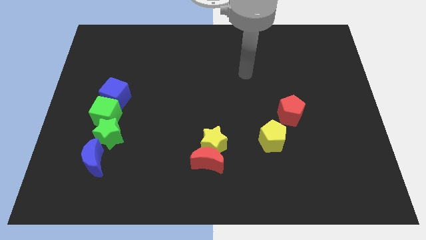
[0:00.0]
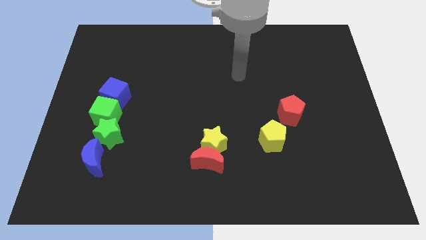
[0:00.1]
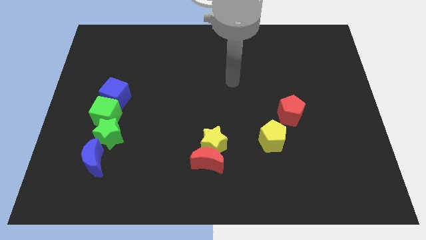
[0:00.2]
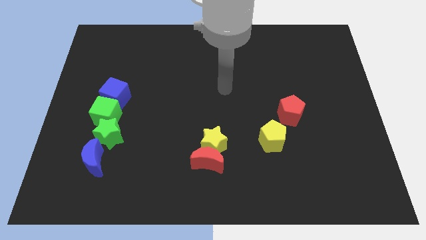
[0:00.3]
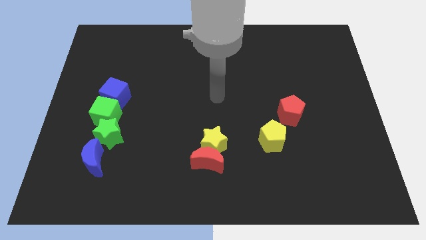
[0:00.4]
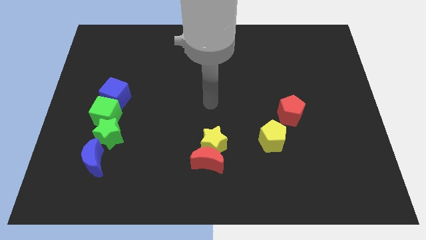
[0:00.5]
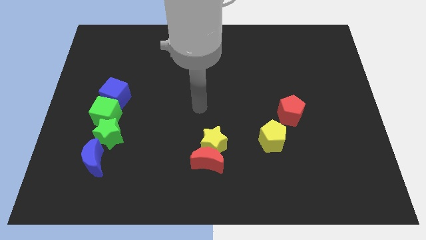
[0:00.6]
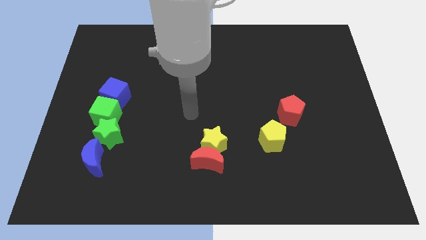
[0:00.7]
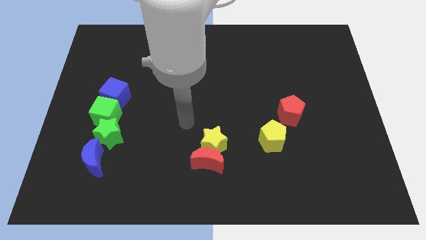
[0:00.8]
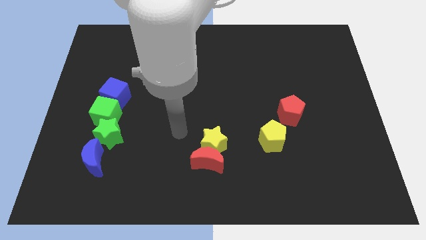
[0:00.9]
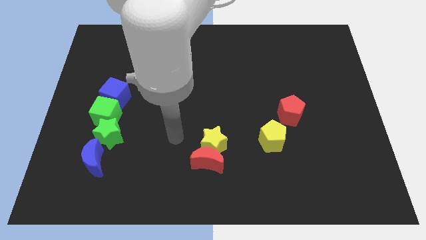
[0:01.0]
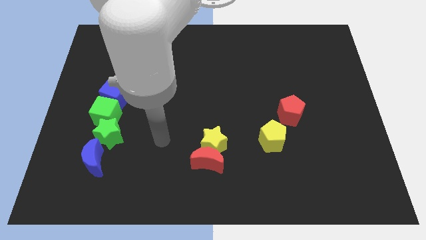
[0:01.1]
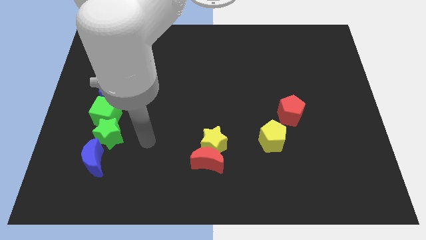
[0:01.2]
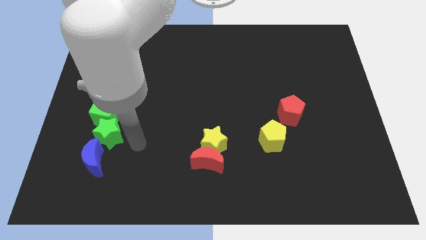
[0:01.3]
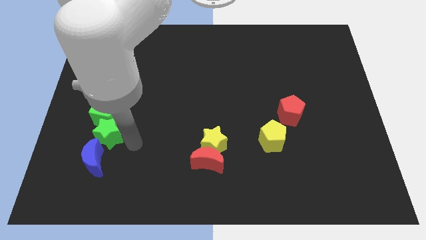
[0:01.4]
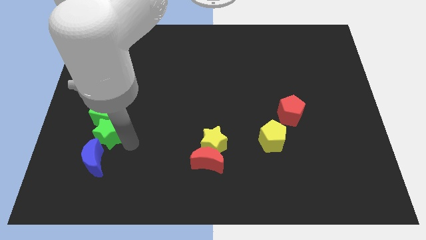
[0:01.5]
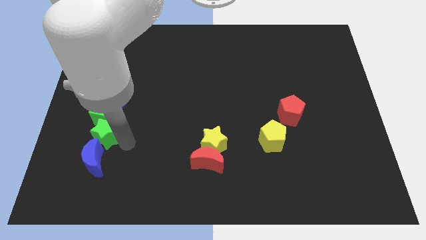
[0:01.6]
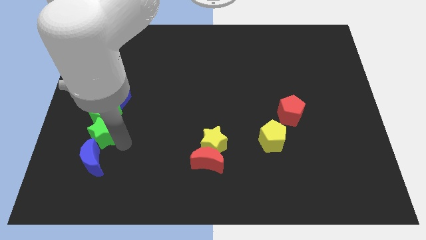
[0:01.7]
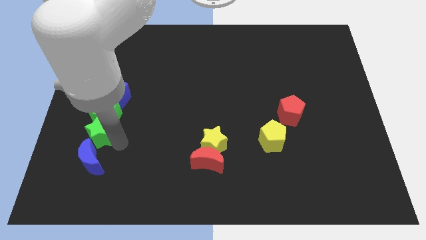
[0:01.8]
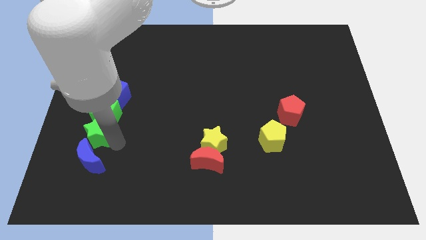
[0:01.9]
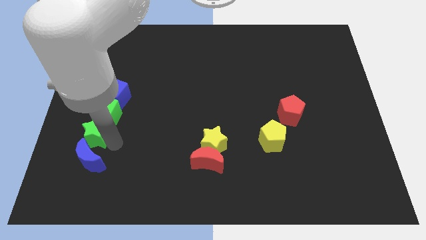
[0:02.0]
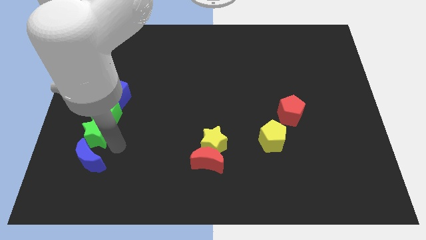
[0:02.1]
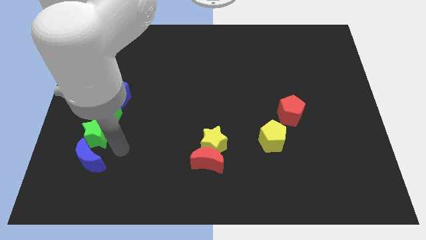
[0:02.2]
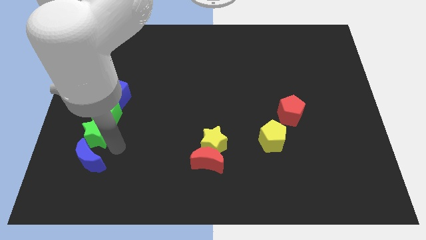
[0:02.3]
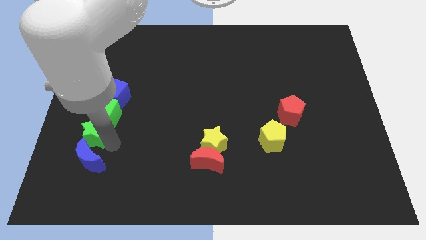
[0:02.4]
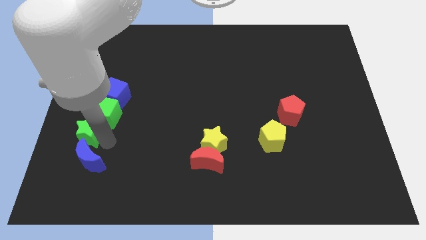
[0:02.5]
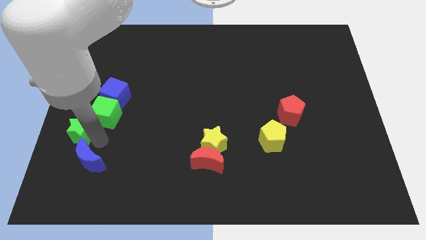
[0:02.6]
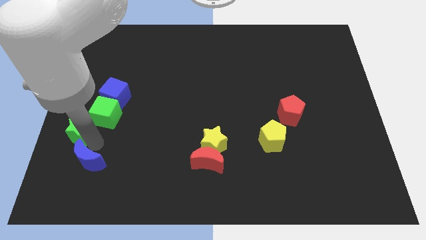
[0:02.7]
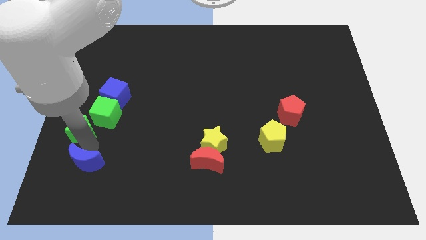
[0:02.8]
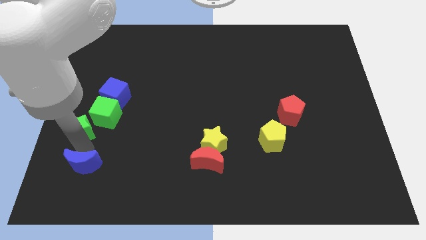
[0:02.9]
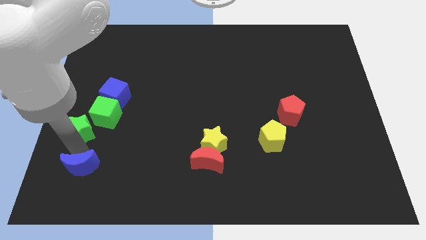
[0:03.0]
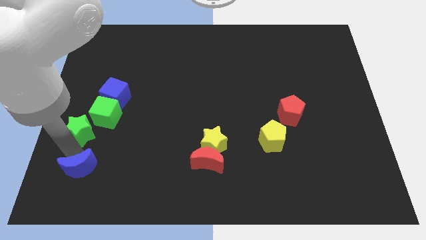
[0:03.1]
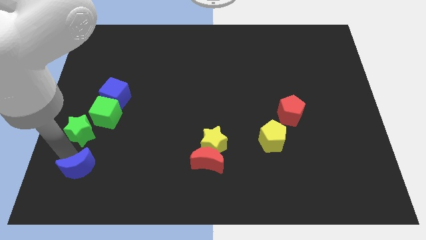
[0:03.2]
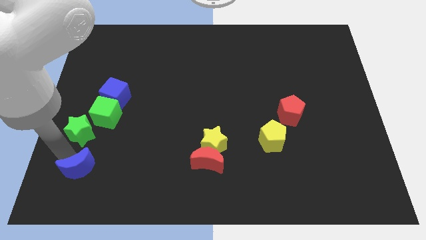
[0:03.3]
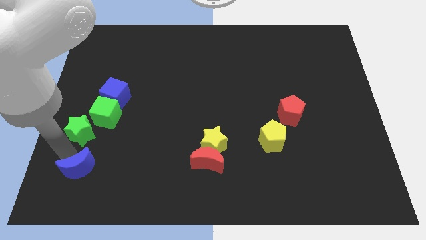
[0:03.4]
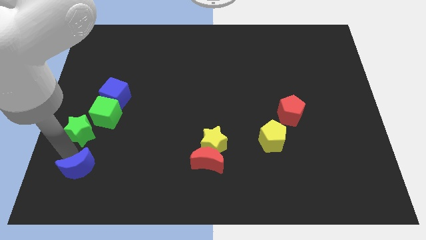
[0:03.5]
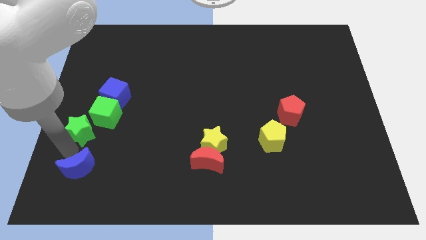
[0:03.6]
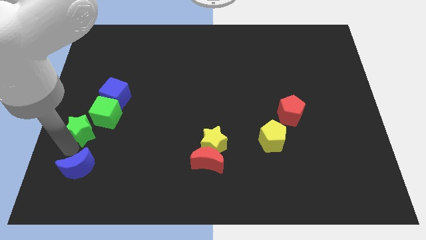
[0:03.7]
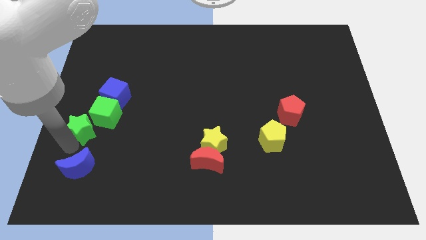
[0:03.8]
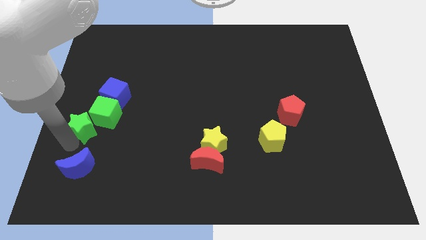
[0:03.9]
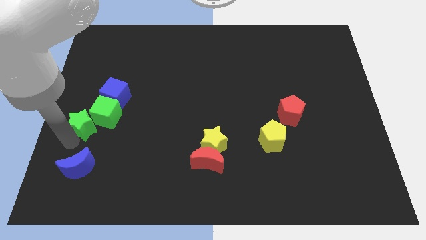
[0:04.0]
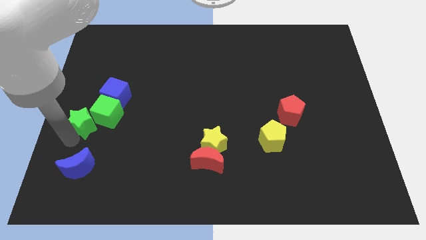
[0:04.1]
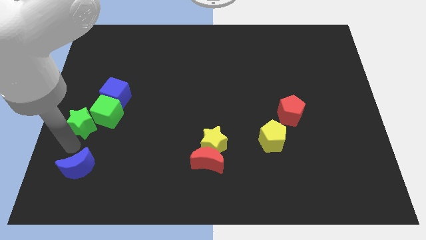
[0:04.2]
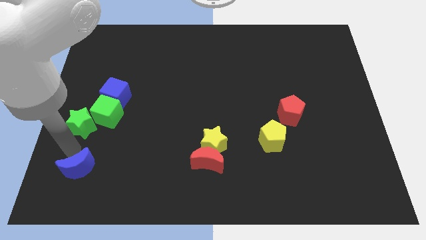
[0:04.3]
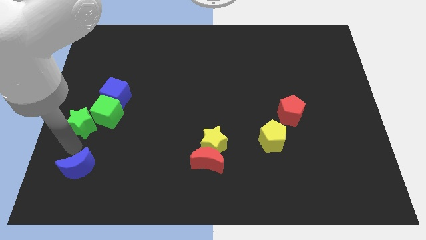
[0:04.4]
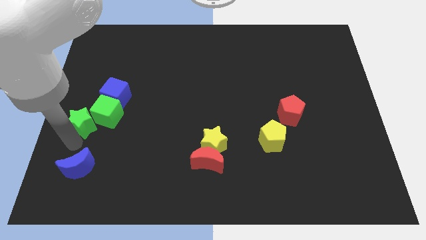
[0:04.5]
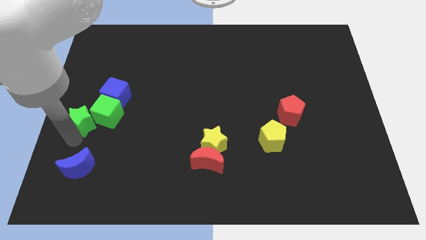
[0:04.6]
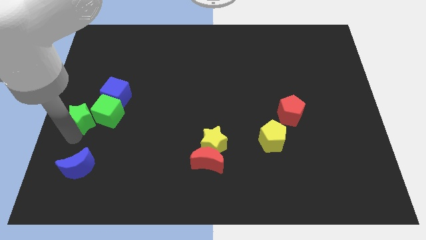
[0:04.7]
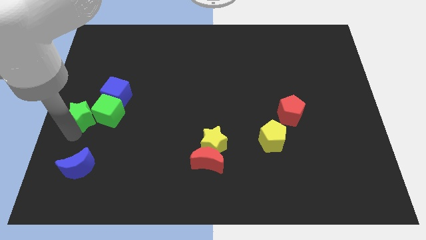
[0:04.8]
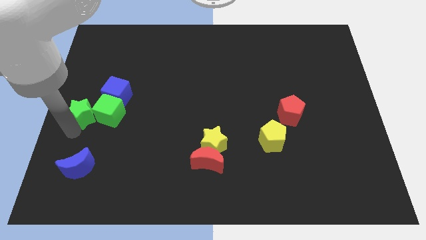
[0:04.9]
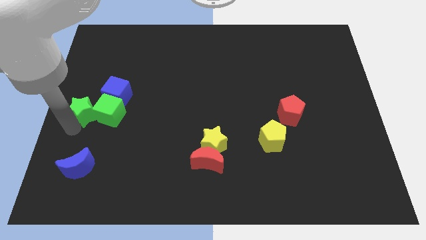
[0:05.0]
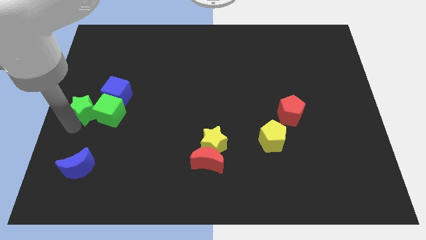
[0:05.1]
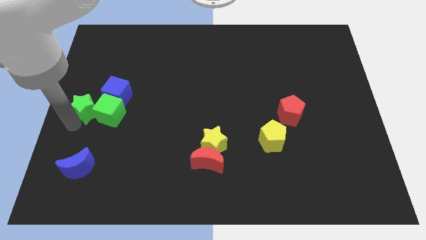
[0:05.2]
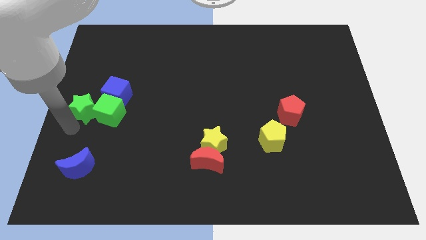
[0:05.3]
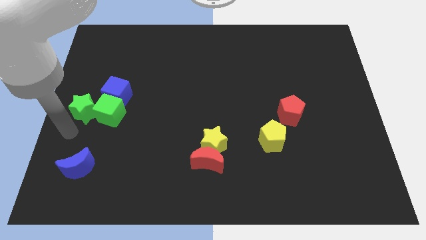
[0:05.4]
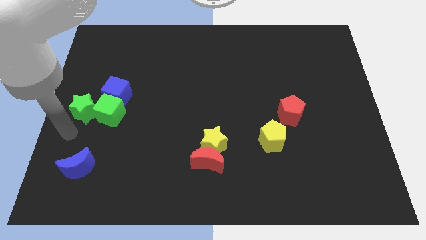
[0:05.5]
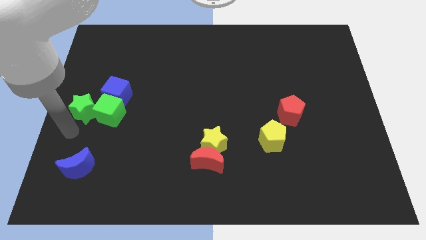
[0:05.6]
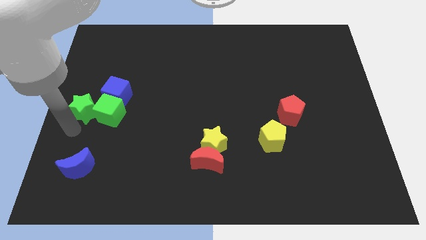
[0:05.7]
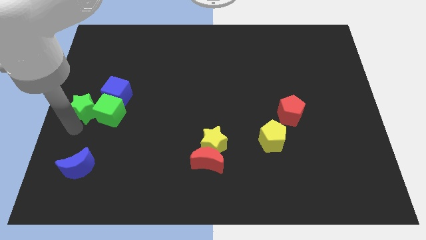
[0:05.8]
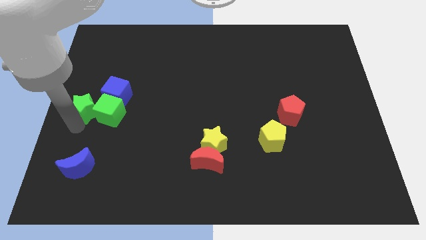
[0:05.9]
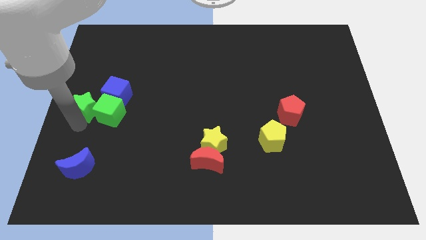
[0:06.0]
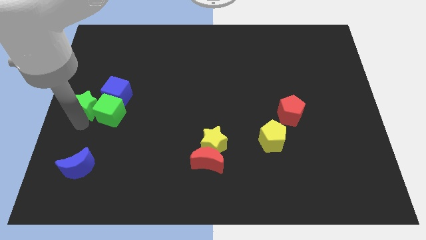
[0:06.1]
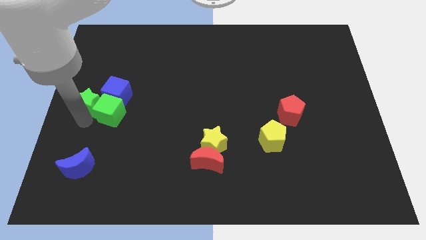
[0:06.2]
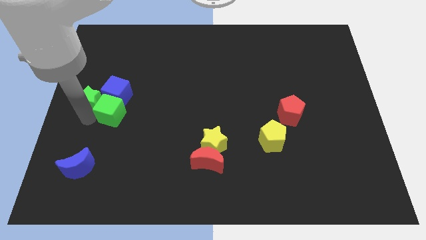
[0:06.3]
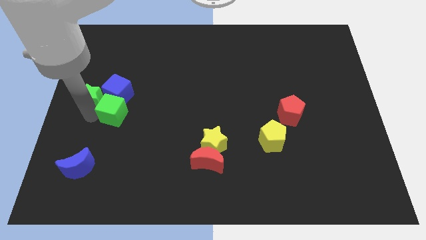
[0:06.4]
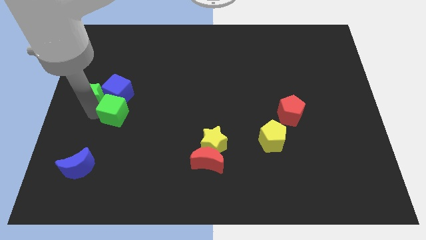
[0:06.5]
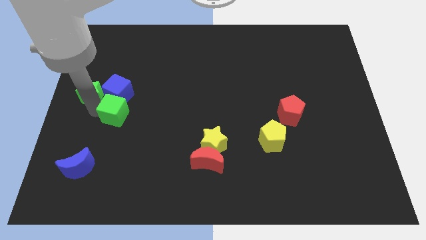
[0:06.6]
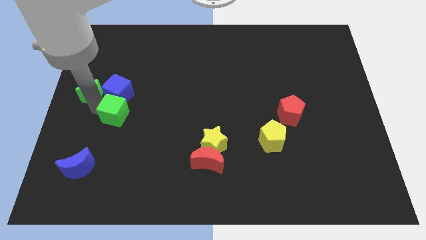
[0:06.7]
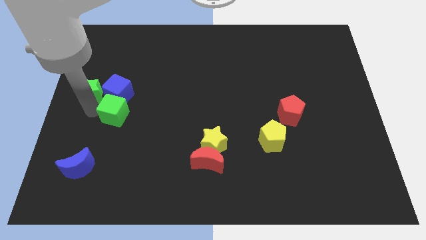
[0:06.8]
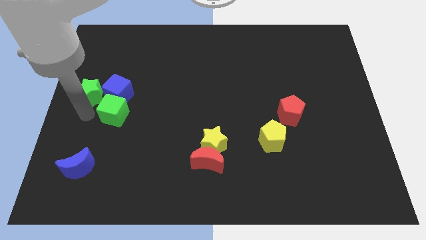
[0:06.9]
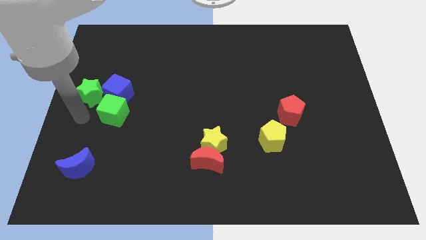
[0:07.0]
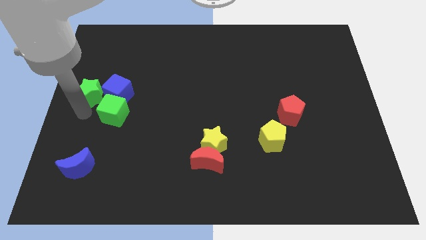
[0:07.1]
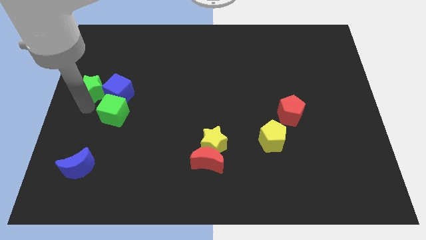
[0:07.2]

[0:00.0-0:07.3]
push the green star diagonally up and to the left of the blue cube

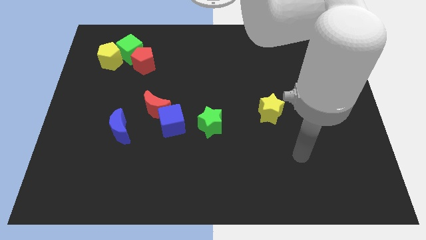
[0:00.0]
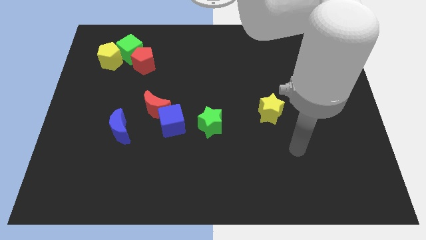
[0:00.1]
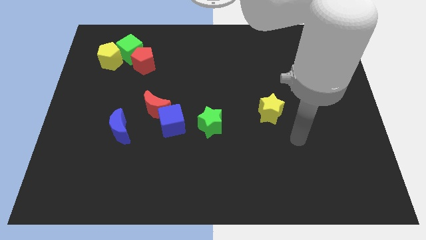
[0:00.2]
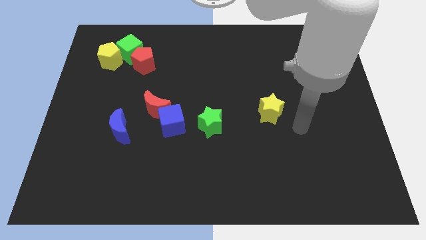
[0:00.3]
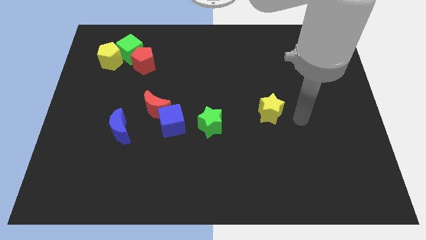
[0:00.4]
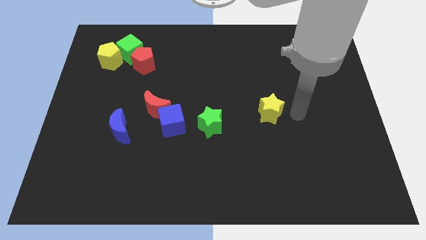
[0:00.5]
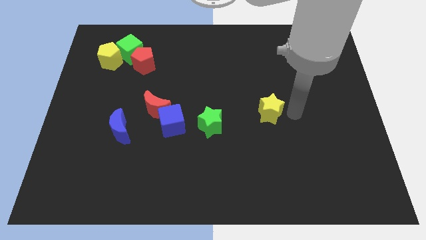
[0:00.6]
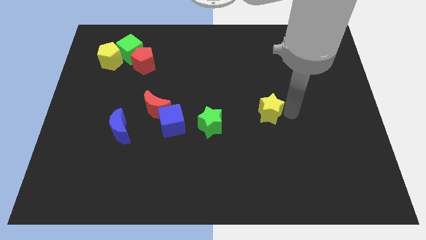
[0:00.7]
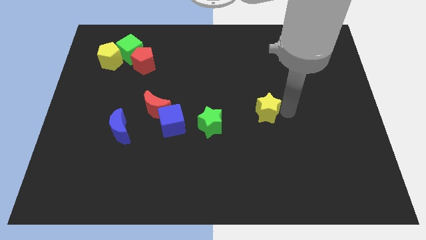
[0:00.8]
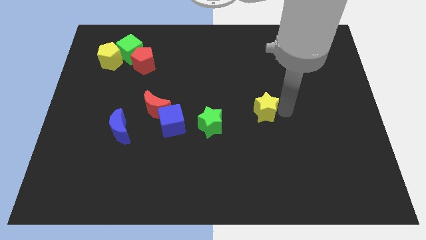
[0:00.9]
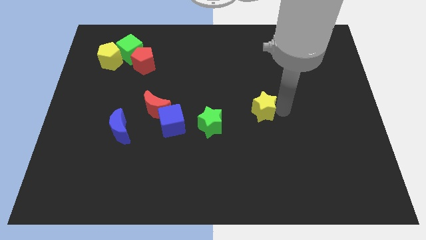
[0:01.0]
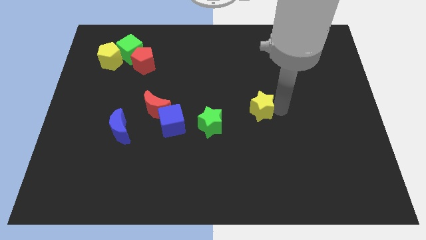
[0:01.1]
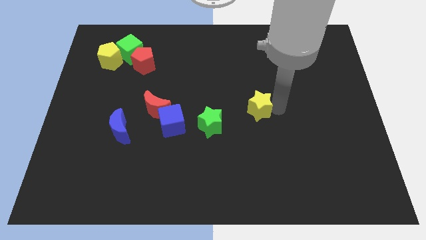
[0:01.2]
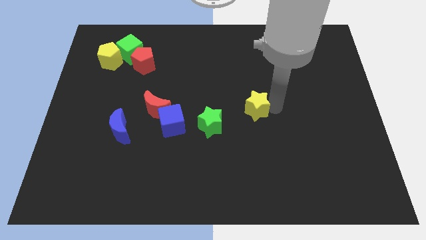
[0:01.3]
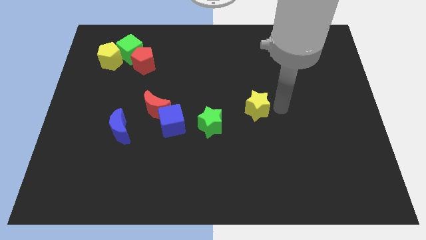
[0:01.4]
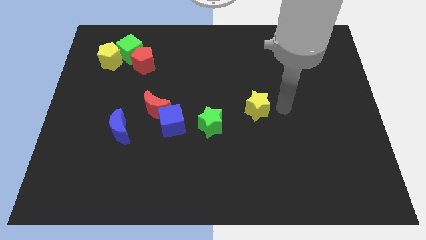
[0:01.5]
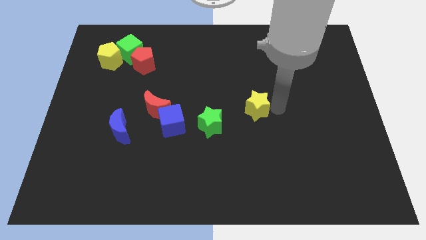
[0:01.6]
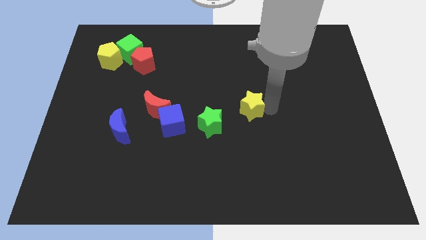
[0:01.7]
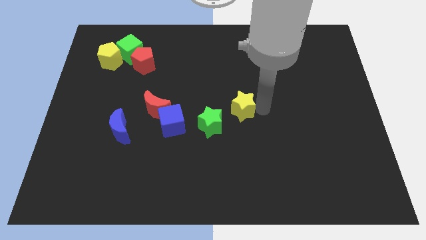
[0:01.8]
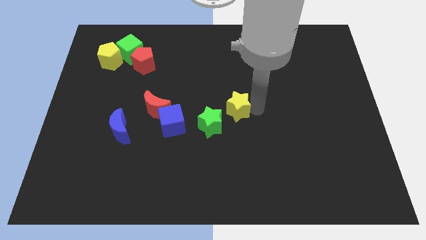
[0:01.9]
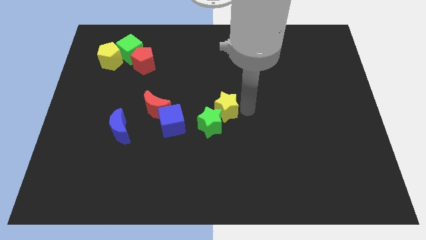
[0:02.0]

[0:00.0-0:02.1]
put the yellow star to the right side of the red moon
